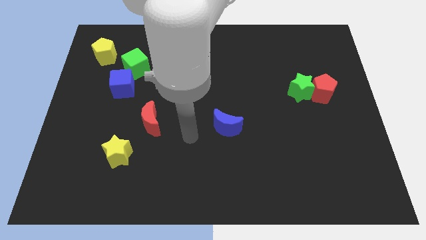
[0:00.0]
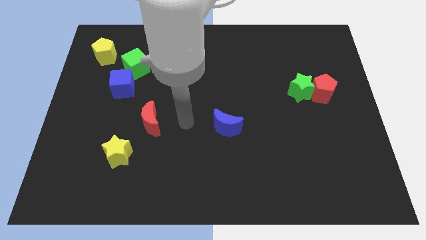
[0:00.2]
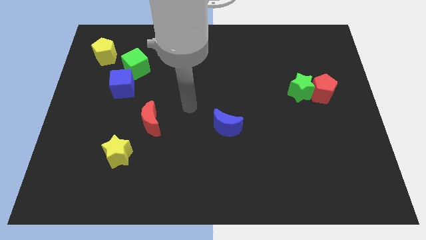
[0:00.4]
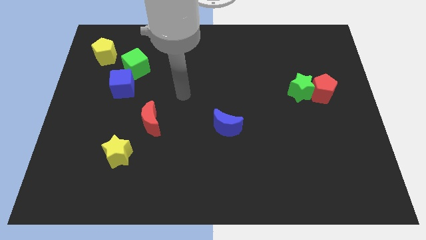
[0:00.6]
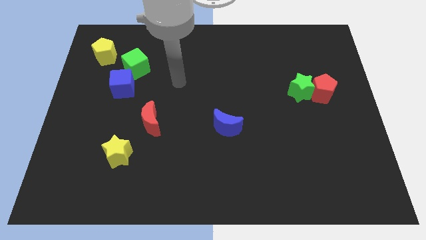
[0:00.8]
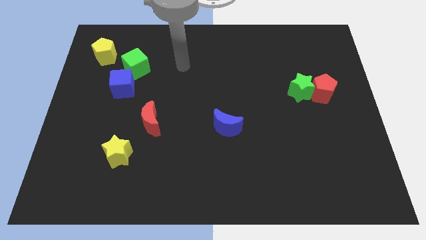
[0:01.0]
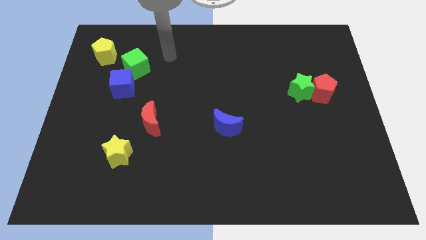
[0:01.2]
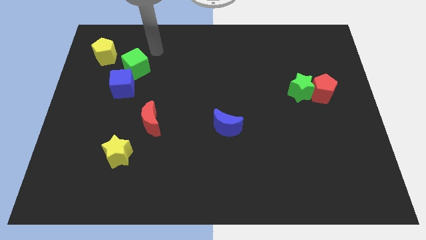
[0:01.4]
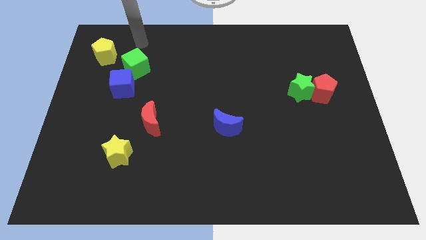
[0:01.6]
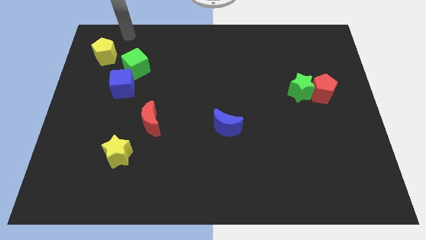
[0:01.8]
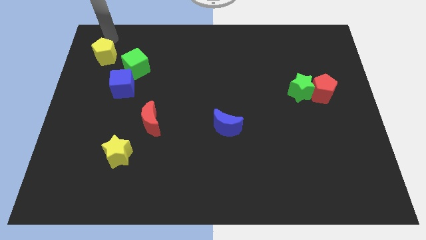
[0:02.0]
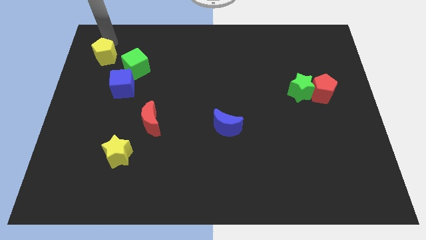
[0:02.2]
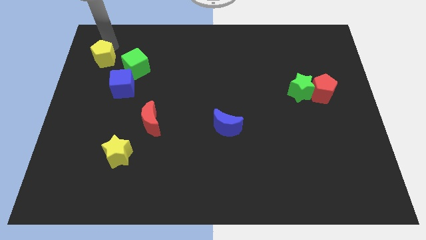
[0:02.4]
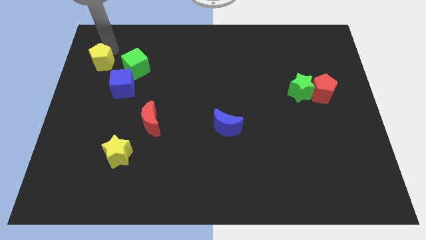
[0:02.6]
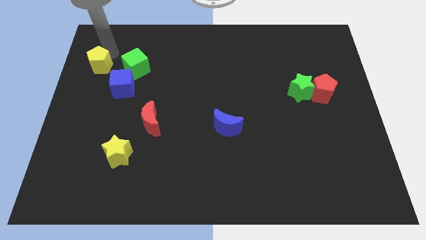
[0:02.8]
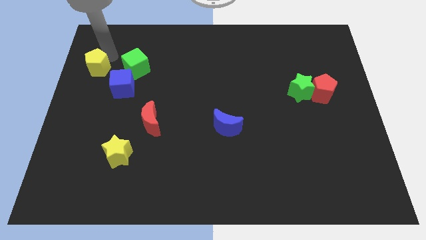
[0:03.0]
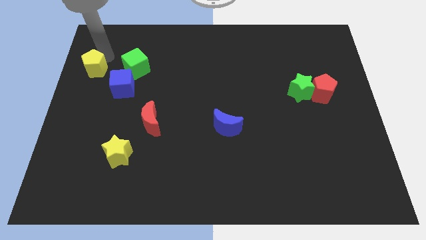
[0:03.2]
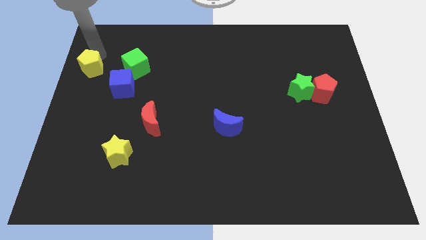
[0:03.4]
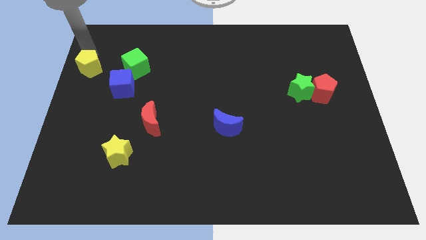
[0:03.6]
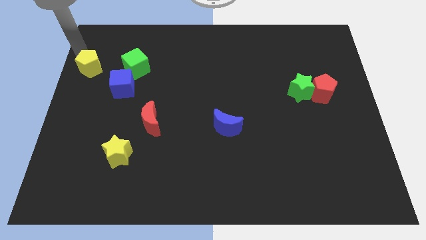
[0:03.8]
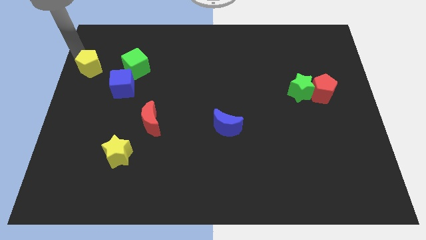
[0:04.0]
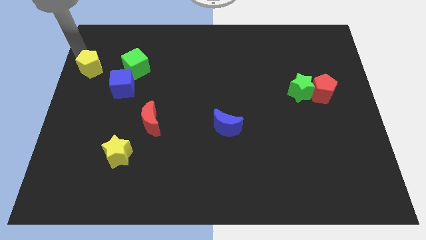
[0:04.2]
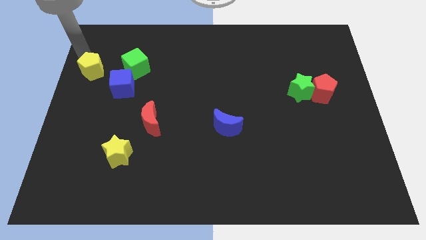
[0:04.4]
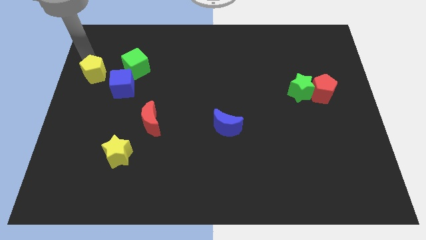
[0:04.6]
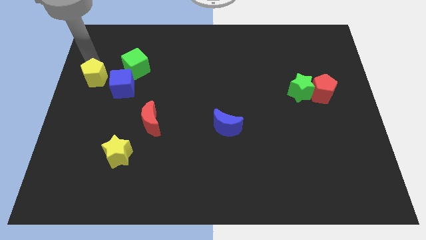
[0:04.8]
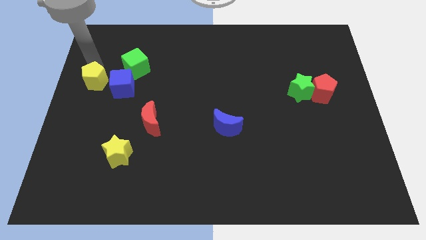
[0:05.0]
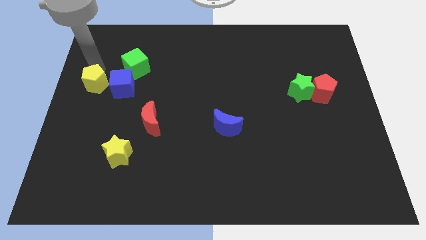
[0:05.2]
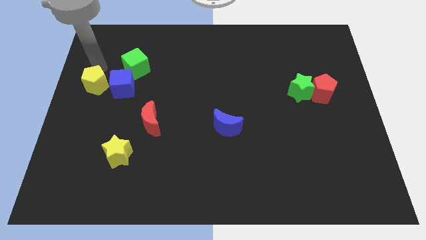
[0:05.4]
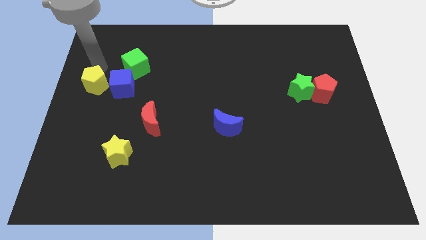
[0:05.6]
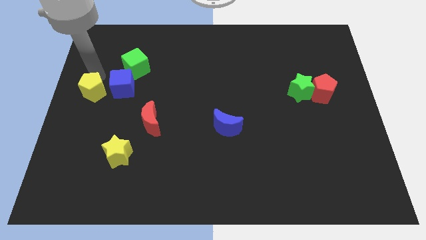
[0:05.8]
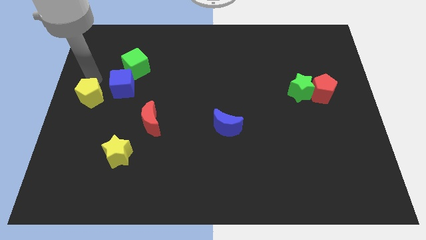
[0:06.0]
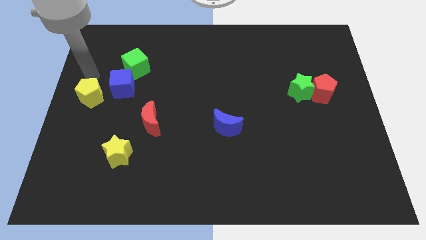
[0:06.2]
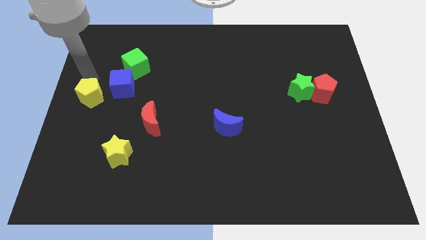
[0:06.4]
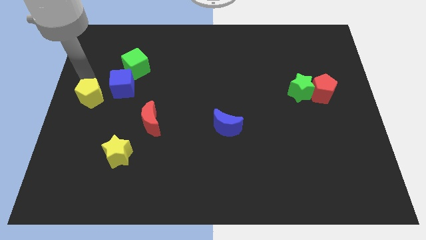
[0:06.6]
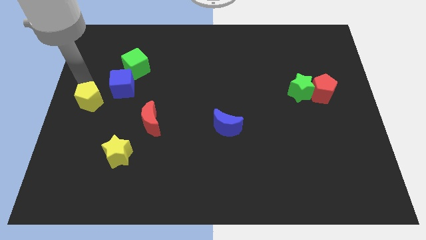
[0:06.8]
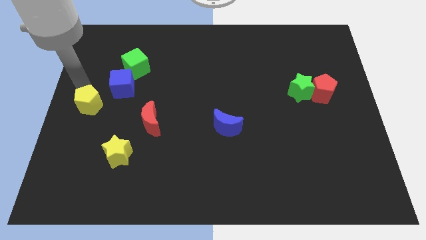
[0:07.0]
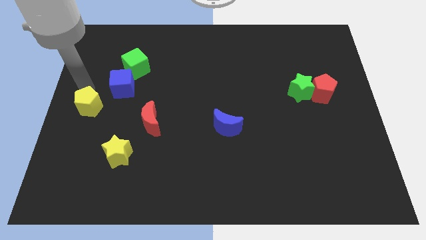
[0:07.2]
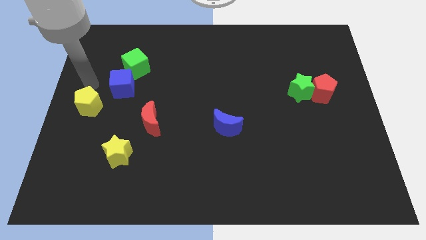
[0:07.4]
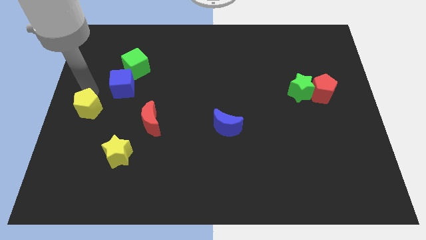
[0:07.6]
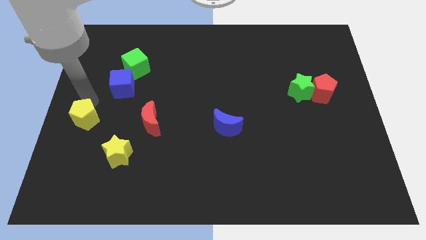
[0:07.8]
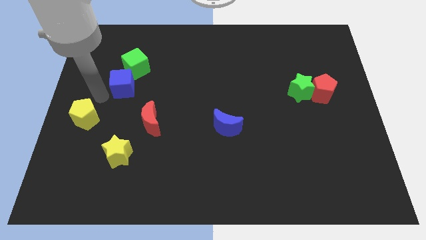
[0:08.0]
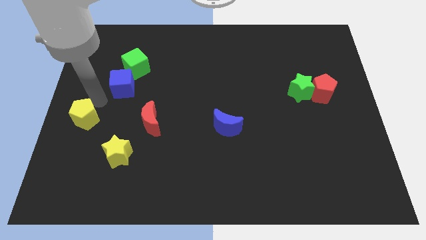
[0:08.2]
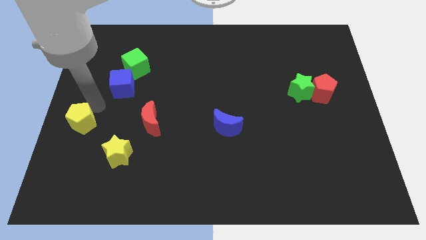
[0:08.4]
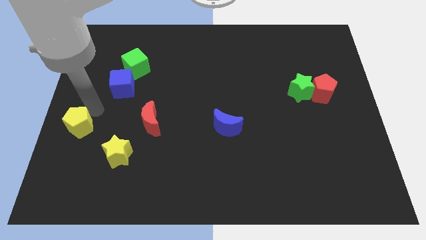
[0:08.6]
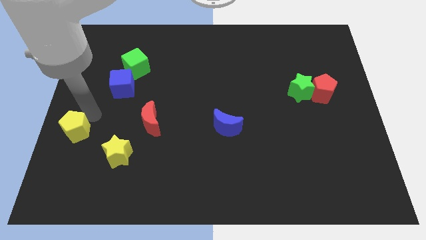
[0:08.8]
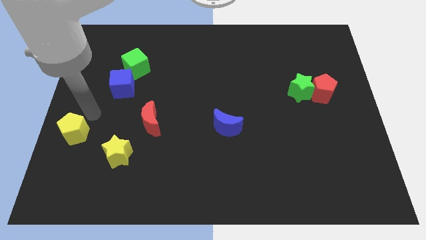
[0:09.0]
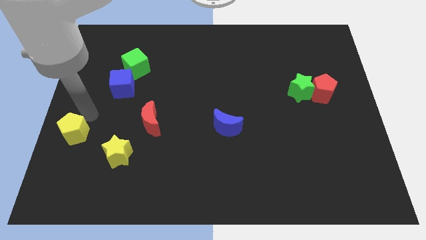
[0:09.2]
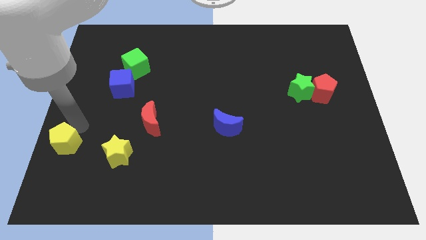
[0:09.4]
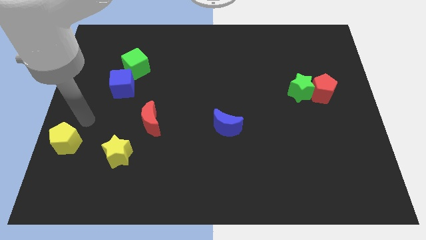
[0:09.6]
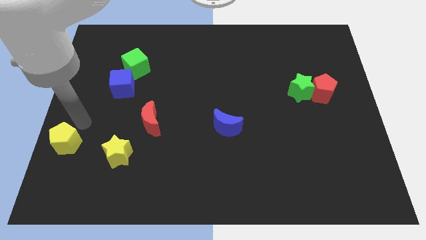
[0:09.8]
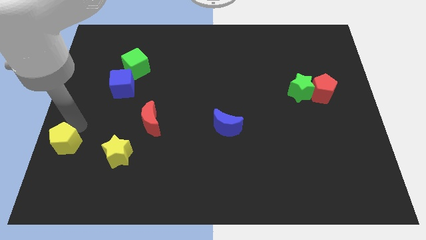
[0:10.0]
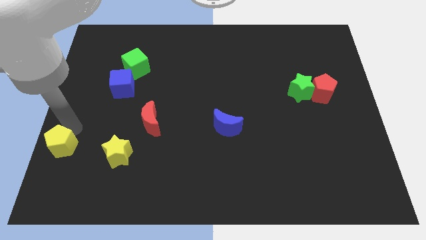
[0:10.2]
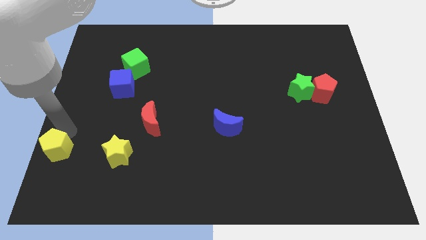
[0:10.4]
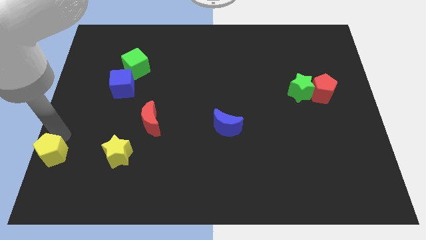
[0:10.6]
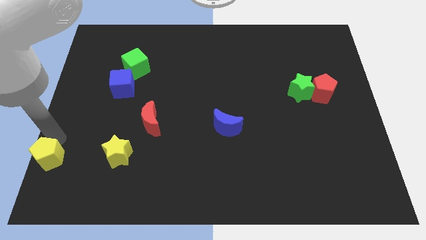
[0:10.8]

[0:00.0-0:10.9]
push the yellow pentagon to the bottom left corner

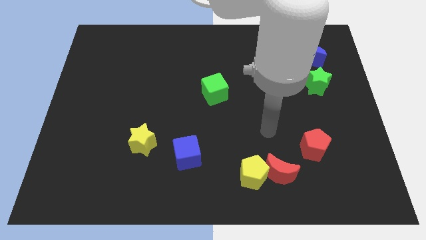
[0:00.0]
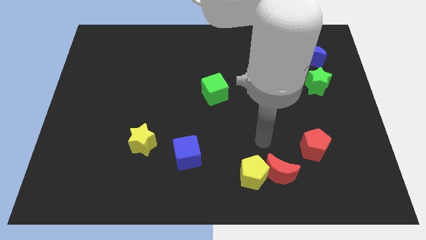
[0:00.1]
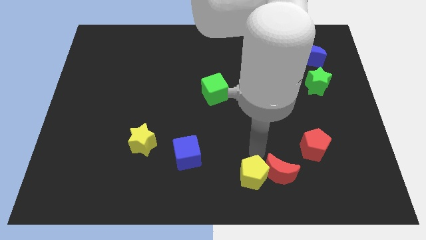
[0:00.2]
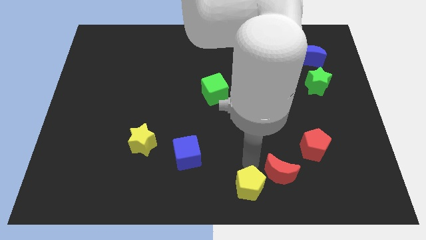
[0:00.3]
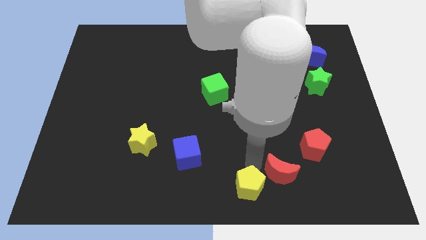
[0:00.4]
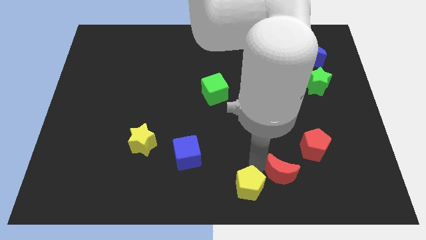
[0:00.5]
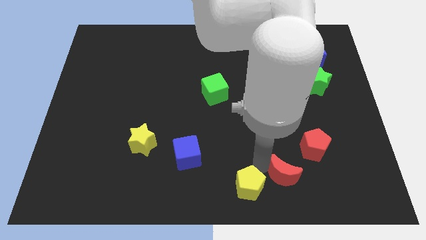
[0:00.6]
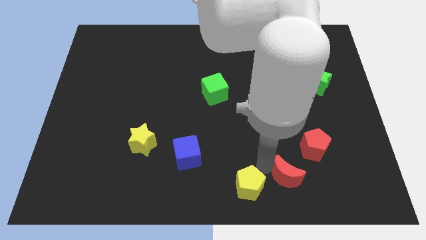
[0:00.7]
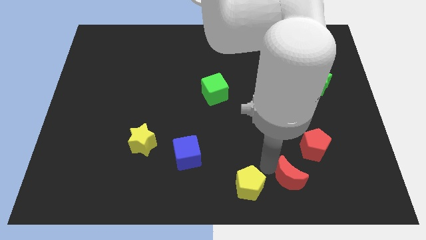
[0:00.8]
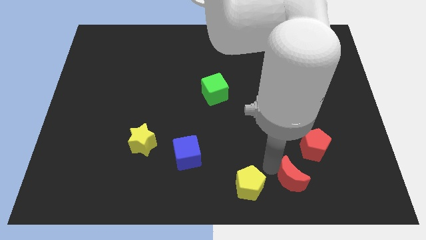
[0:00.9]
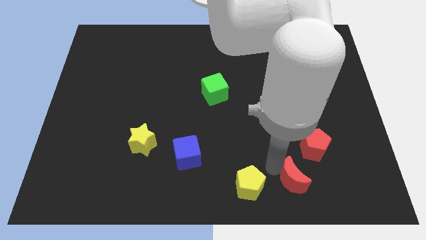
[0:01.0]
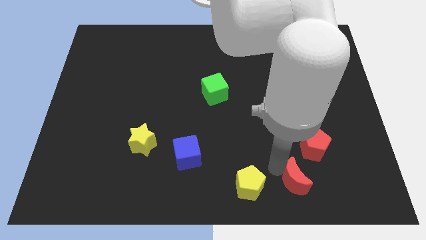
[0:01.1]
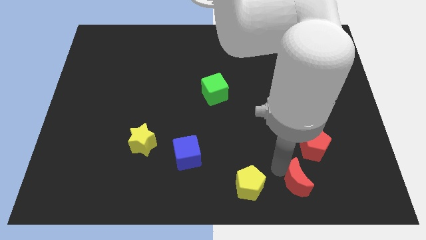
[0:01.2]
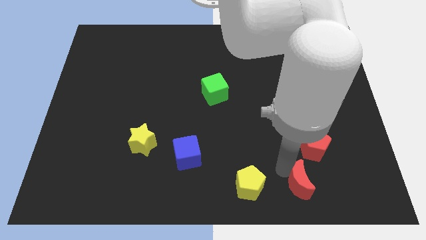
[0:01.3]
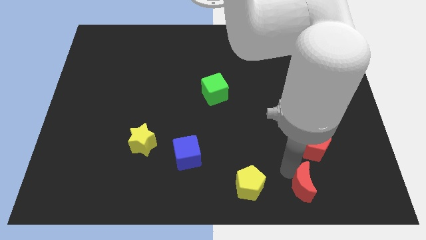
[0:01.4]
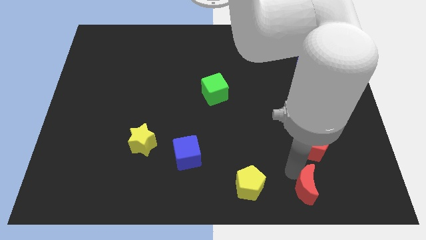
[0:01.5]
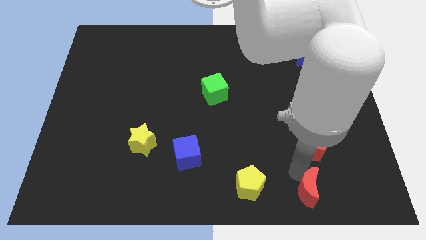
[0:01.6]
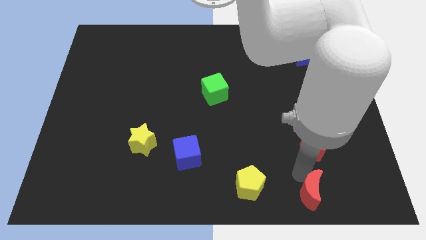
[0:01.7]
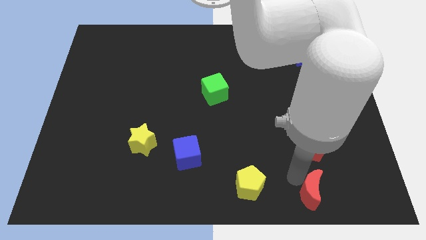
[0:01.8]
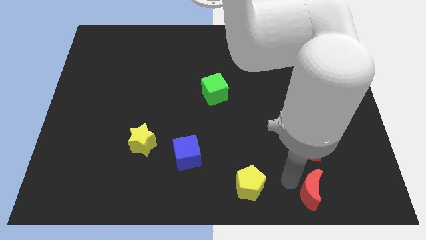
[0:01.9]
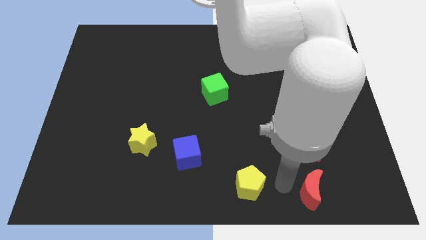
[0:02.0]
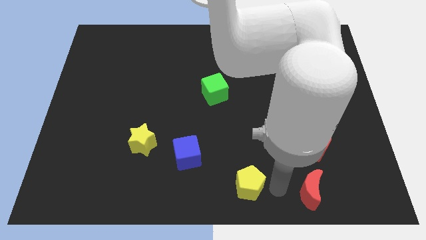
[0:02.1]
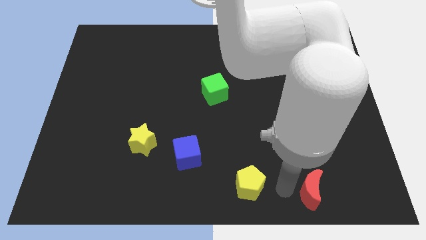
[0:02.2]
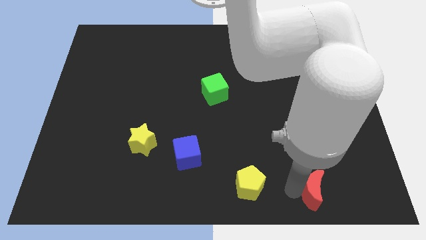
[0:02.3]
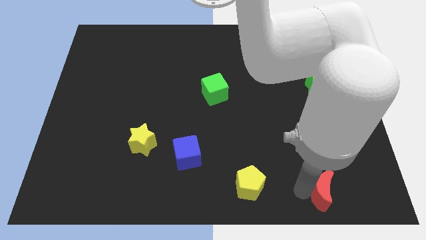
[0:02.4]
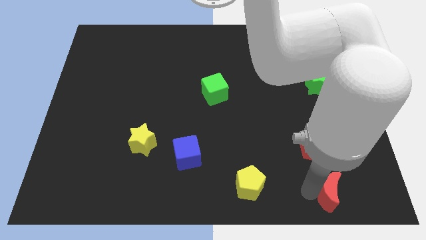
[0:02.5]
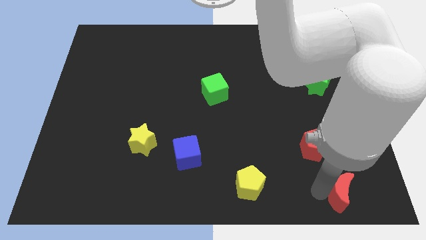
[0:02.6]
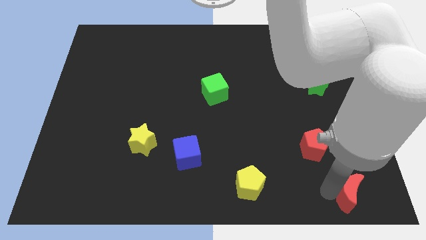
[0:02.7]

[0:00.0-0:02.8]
put the red moon to the lower right corner
